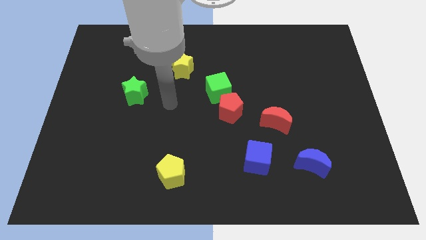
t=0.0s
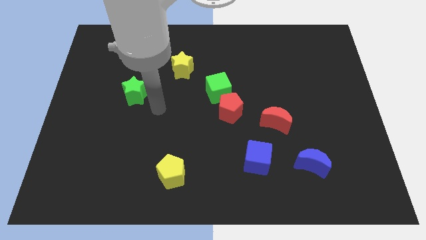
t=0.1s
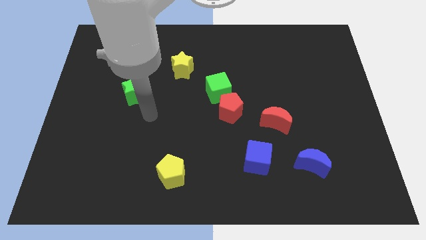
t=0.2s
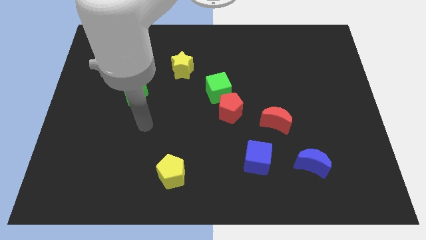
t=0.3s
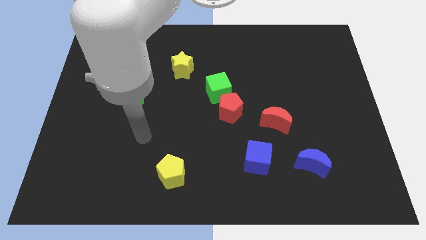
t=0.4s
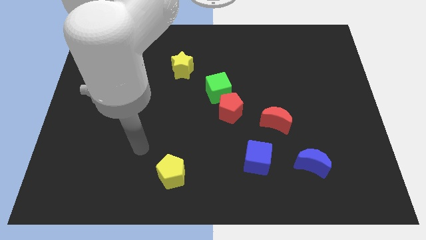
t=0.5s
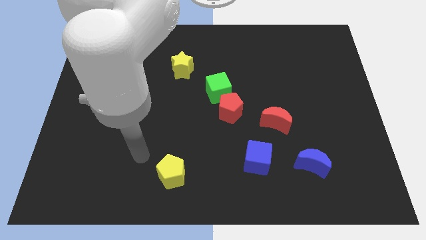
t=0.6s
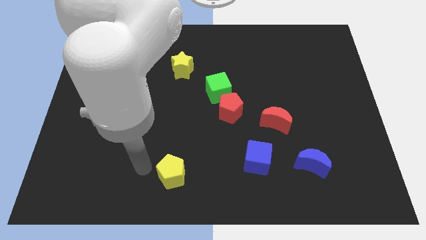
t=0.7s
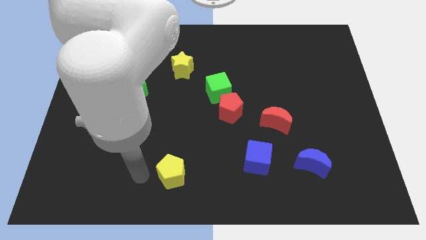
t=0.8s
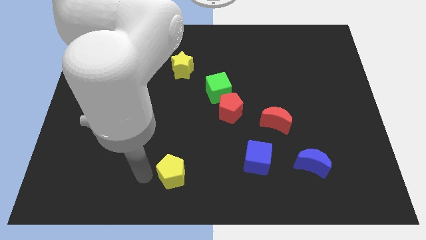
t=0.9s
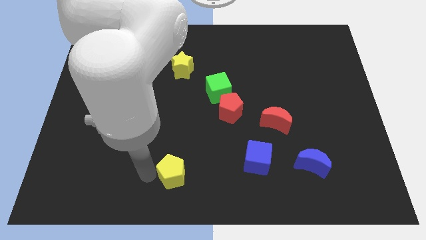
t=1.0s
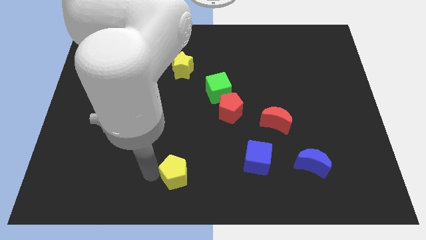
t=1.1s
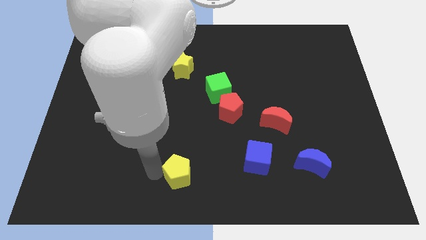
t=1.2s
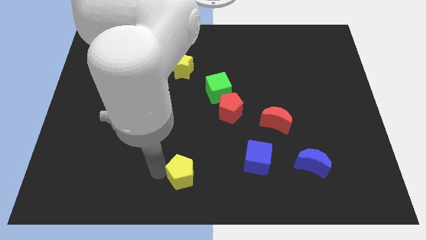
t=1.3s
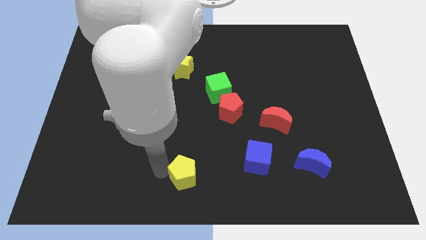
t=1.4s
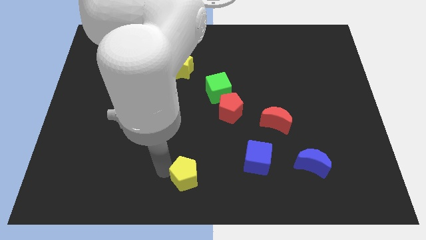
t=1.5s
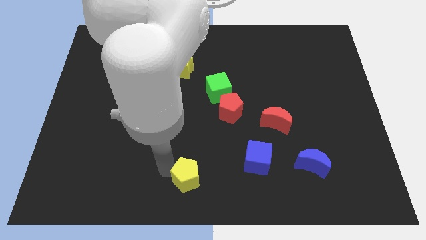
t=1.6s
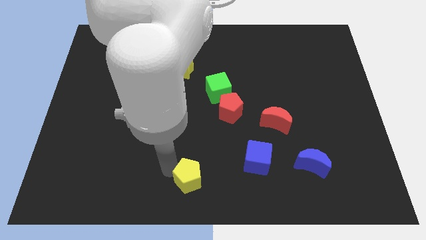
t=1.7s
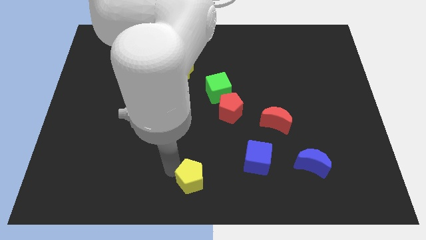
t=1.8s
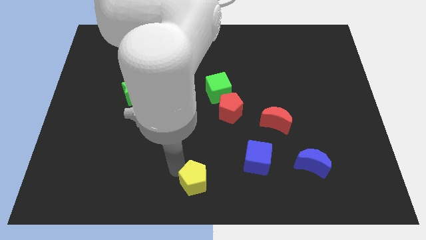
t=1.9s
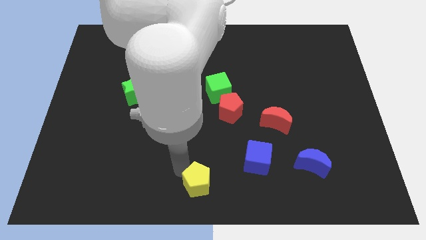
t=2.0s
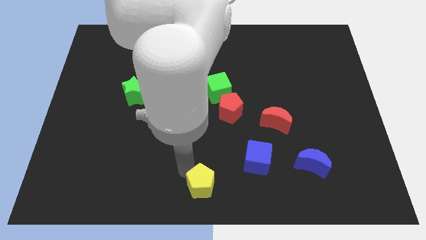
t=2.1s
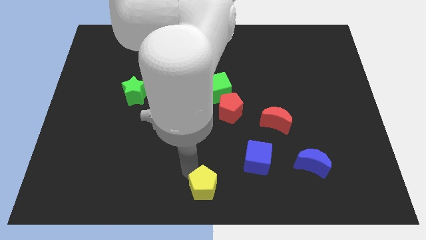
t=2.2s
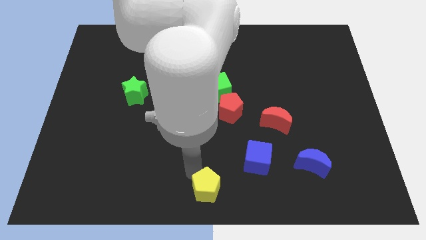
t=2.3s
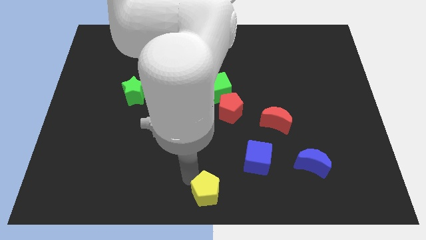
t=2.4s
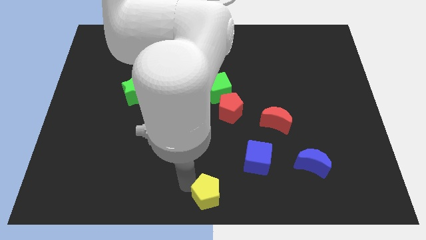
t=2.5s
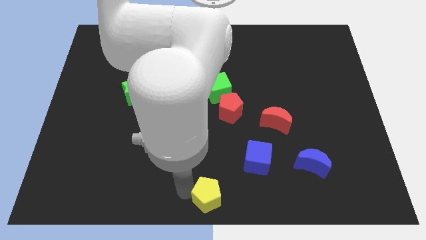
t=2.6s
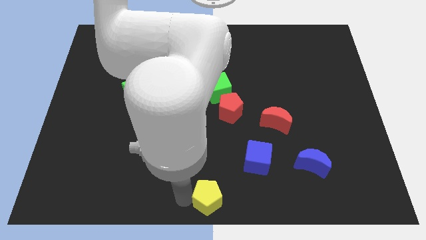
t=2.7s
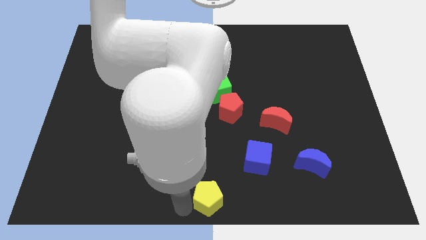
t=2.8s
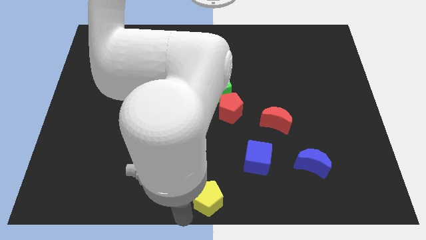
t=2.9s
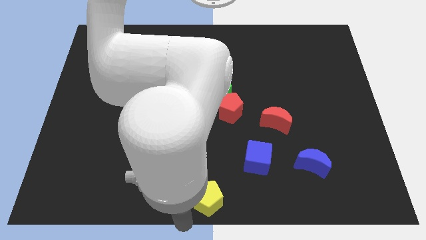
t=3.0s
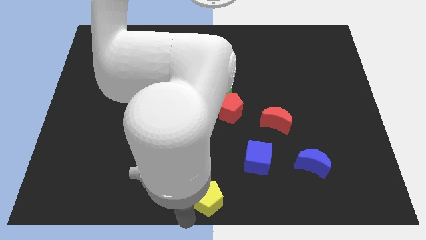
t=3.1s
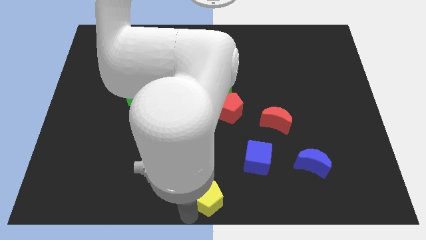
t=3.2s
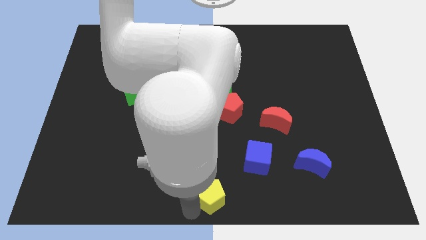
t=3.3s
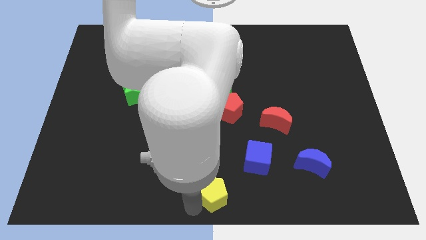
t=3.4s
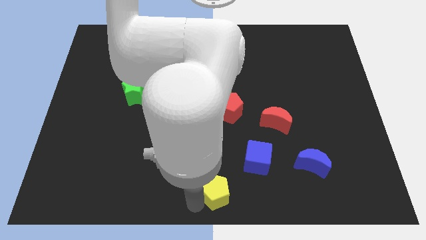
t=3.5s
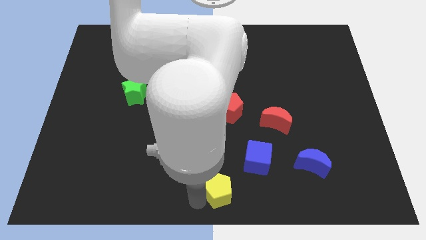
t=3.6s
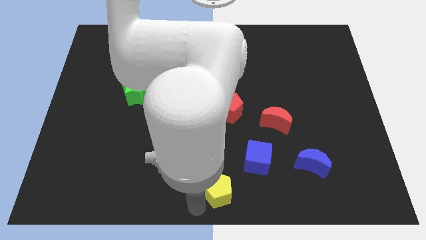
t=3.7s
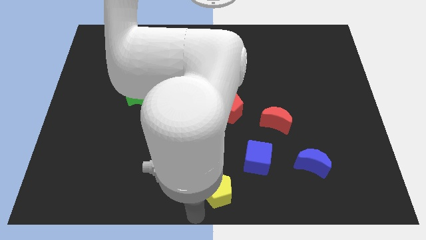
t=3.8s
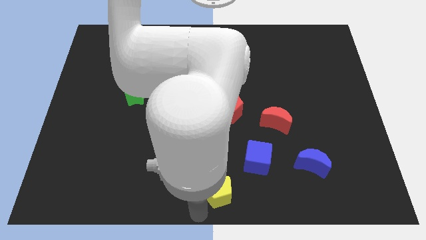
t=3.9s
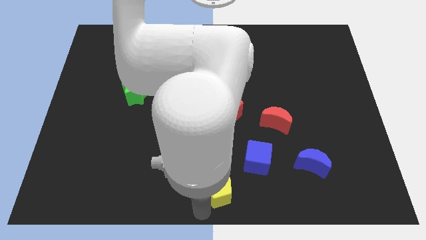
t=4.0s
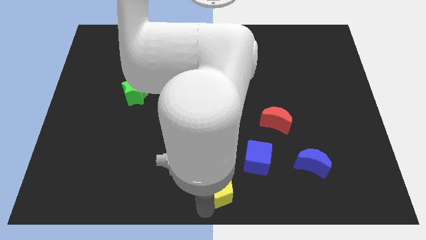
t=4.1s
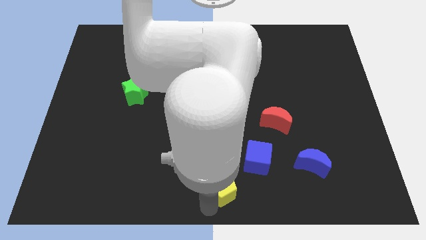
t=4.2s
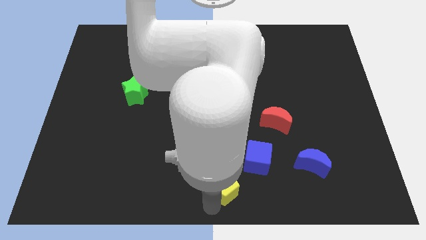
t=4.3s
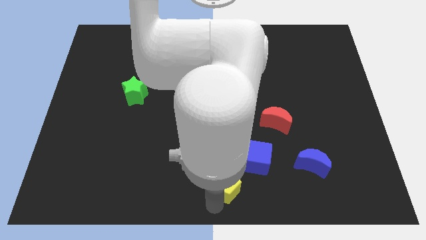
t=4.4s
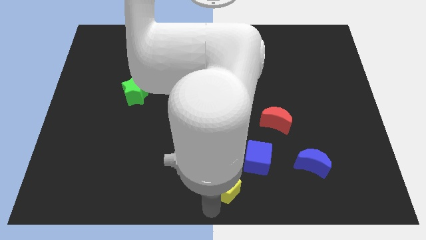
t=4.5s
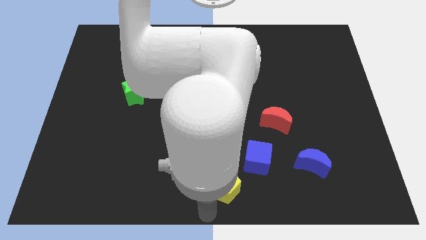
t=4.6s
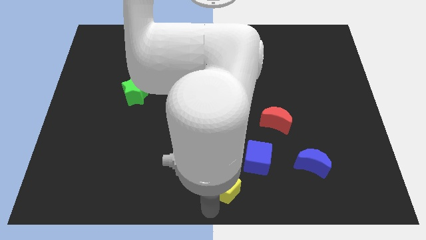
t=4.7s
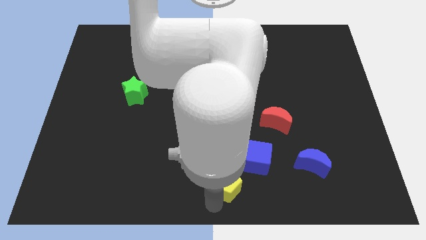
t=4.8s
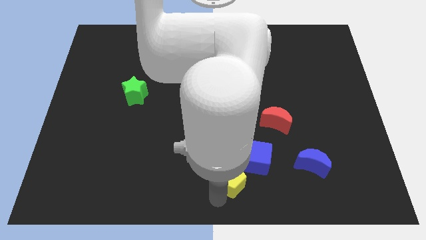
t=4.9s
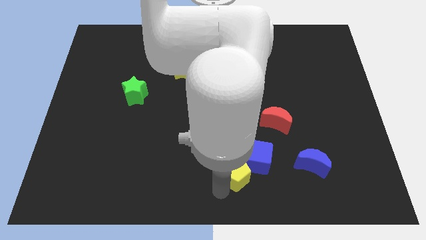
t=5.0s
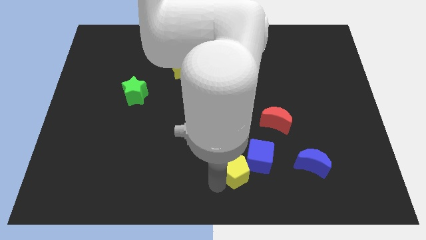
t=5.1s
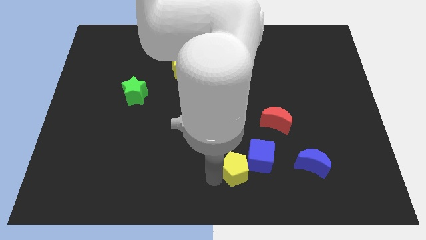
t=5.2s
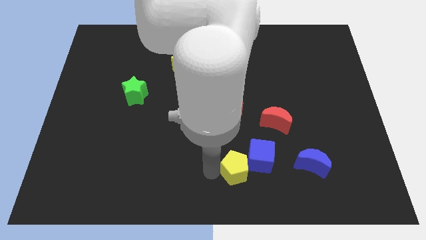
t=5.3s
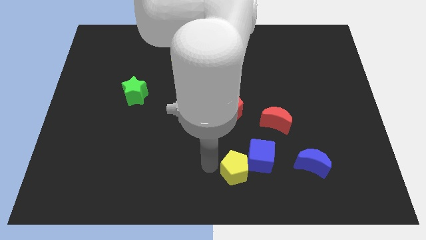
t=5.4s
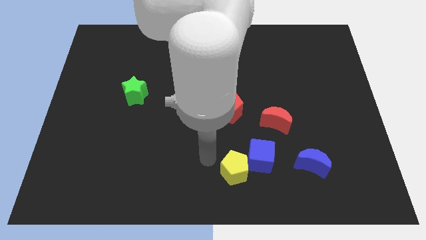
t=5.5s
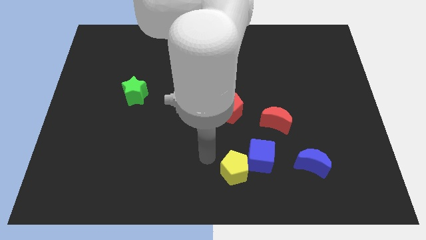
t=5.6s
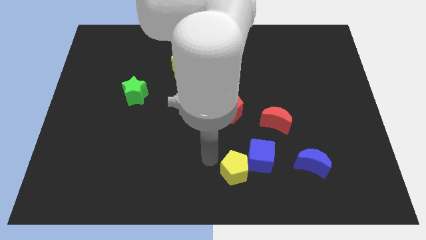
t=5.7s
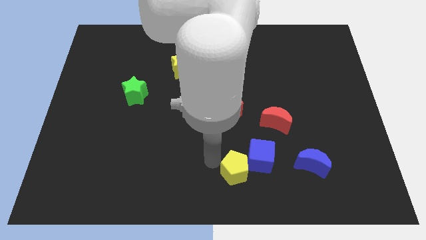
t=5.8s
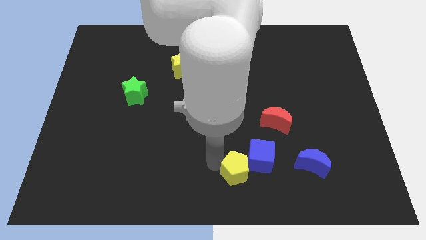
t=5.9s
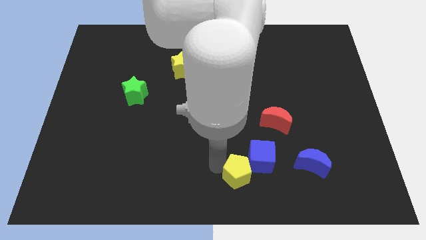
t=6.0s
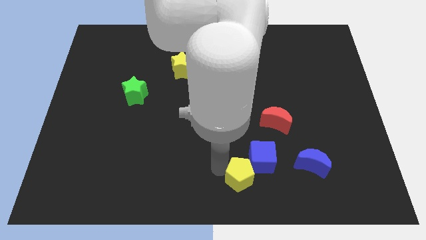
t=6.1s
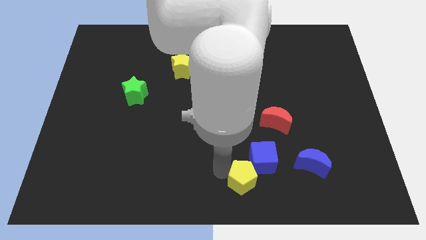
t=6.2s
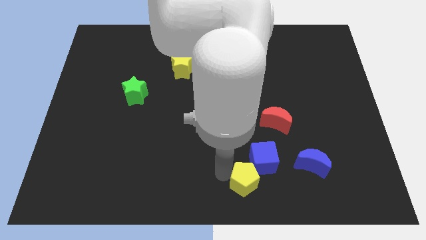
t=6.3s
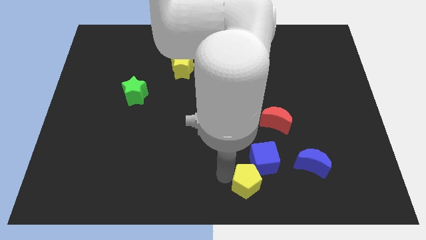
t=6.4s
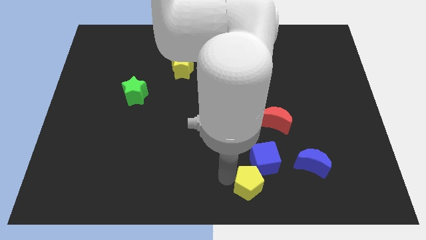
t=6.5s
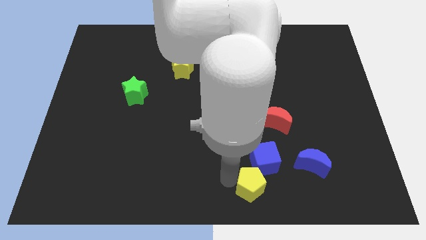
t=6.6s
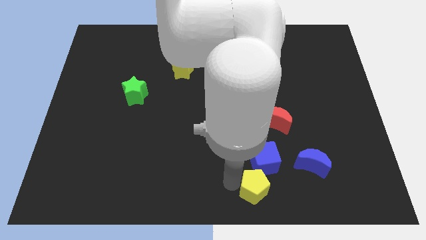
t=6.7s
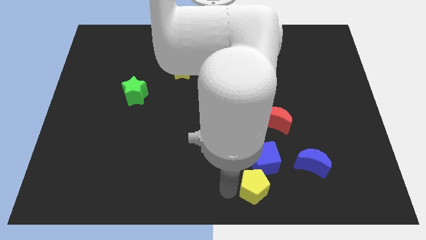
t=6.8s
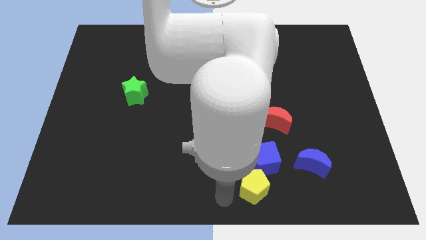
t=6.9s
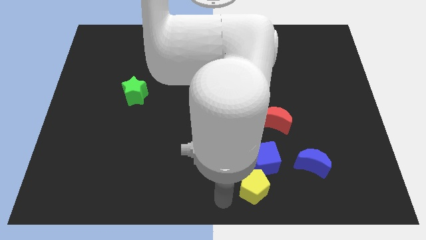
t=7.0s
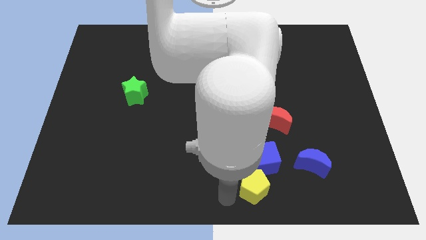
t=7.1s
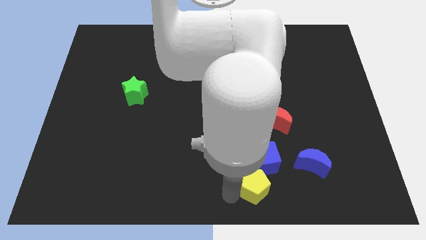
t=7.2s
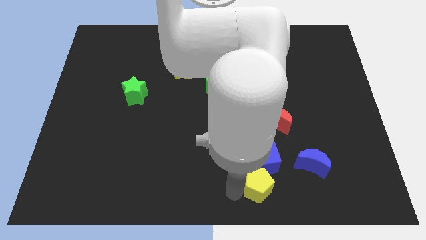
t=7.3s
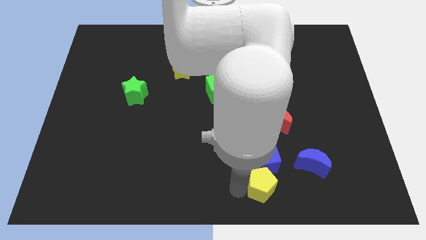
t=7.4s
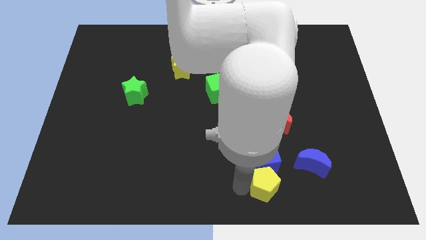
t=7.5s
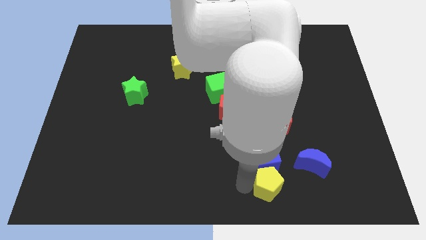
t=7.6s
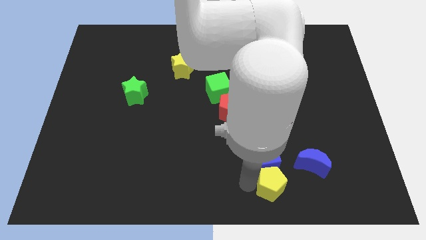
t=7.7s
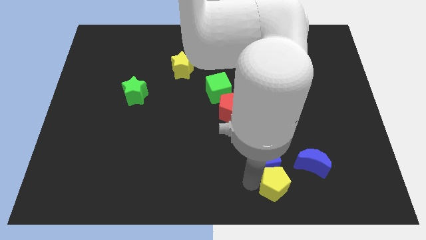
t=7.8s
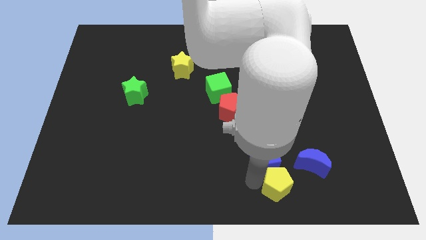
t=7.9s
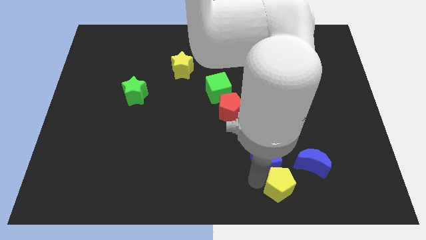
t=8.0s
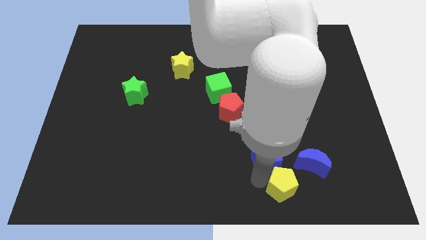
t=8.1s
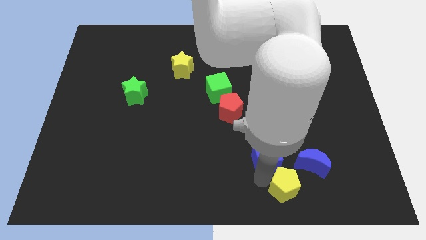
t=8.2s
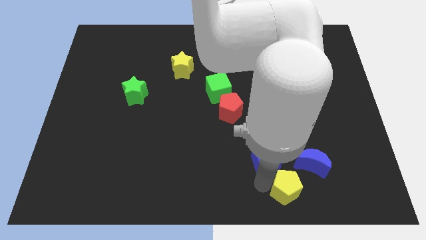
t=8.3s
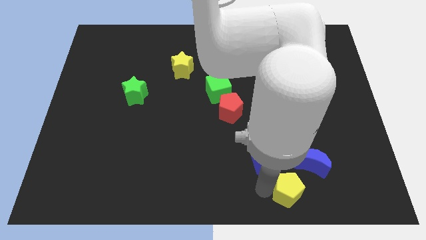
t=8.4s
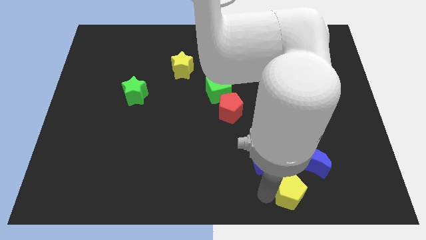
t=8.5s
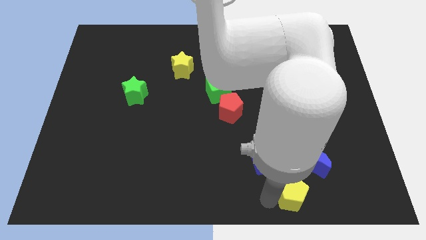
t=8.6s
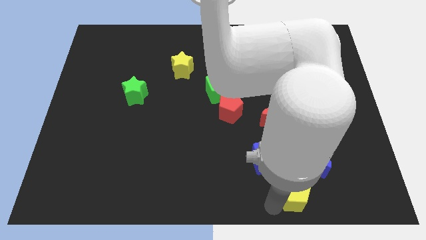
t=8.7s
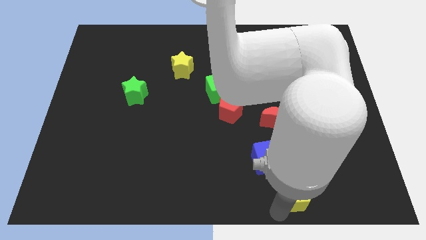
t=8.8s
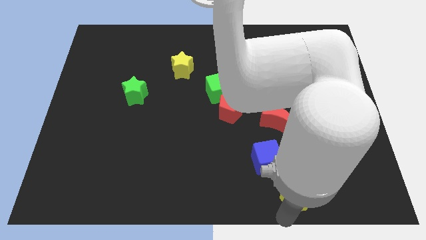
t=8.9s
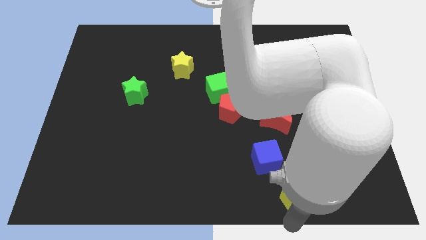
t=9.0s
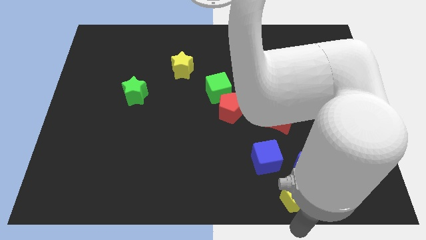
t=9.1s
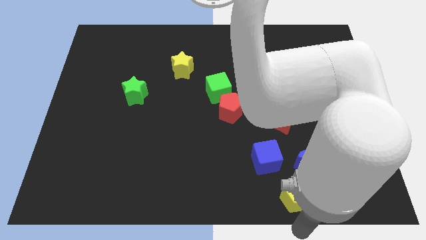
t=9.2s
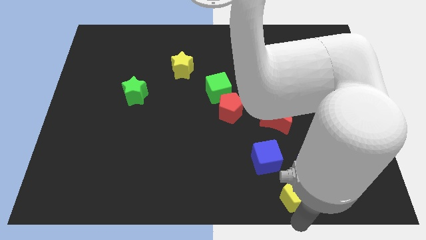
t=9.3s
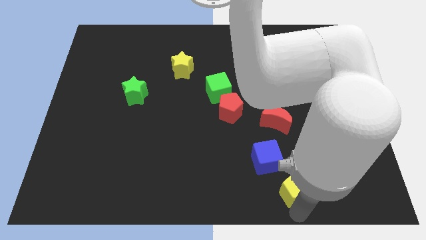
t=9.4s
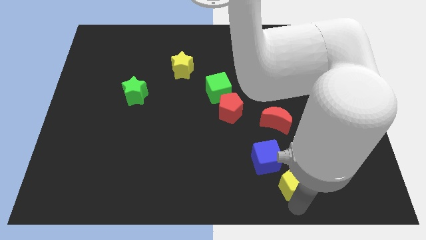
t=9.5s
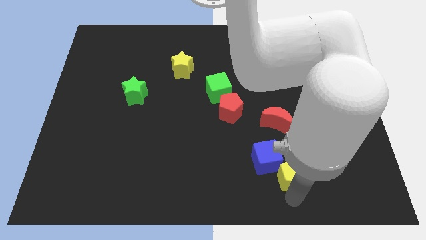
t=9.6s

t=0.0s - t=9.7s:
move the yellow pentagon to the blue moon
